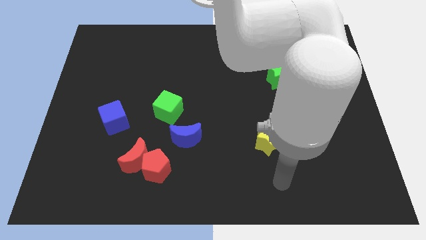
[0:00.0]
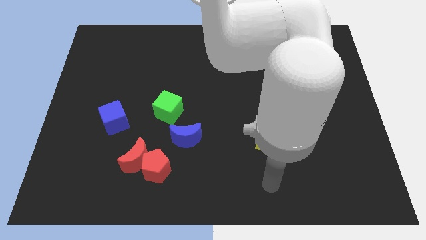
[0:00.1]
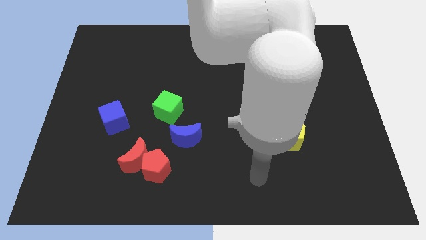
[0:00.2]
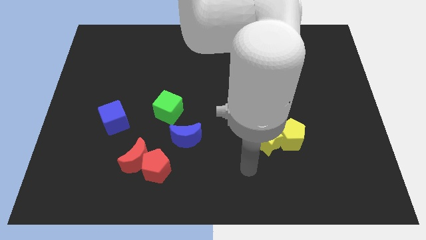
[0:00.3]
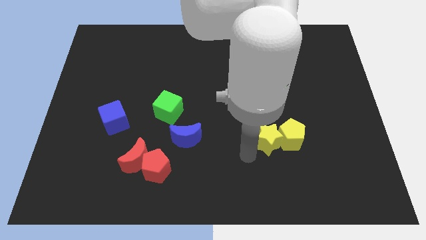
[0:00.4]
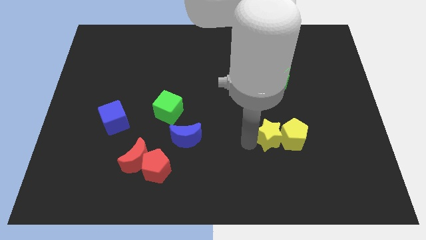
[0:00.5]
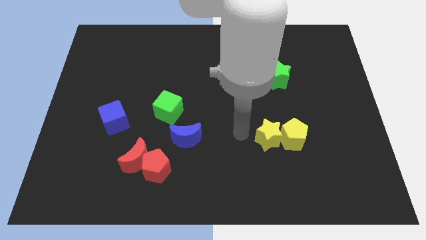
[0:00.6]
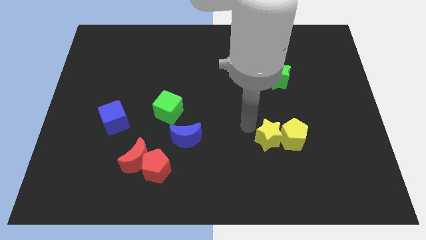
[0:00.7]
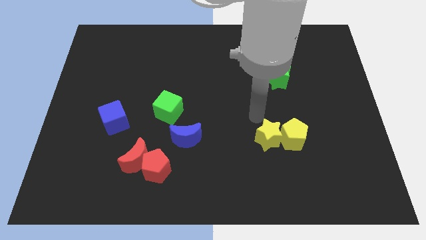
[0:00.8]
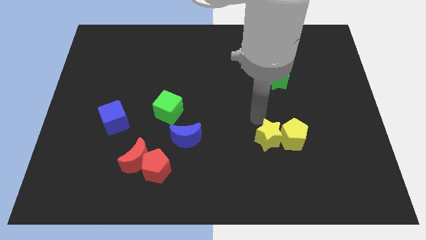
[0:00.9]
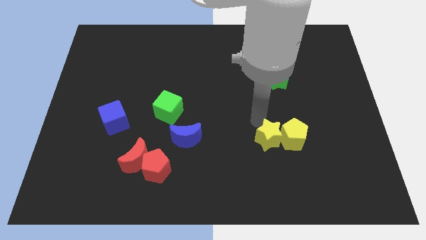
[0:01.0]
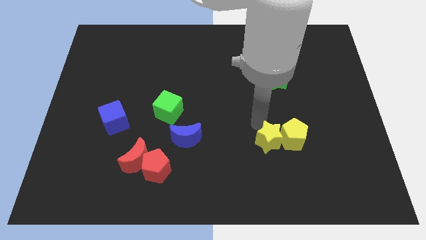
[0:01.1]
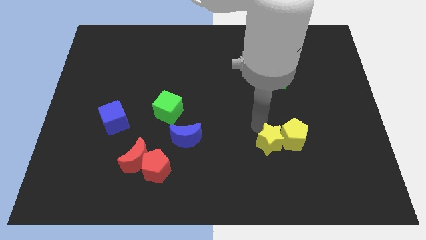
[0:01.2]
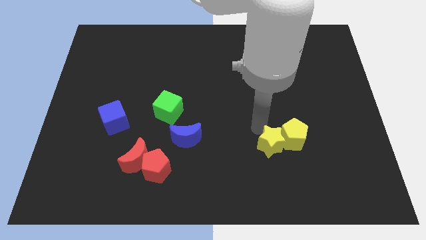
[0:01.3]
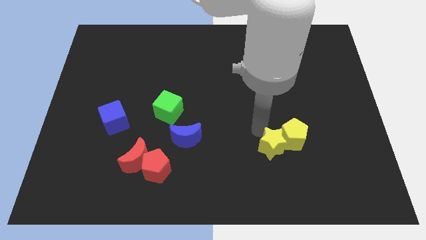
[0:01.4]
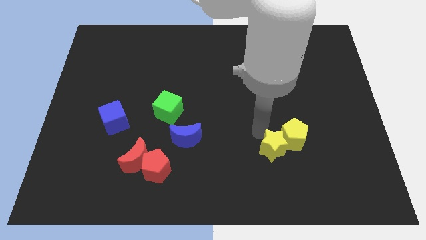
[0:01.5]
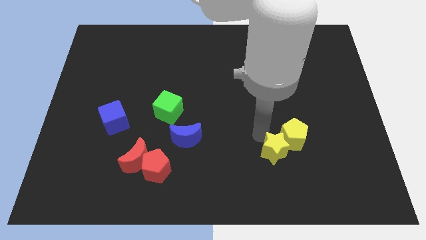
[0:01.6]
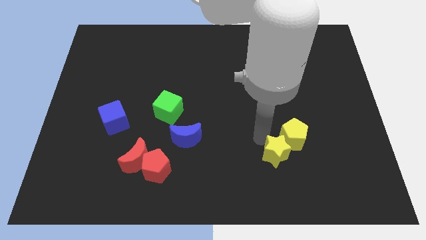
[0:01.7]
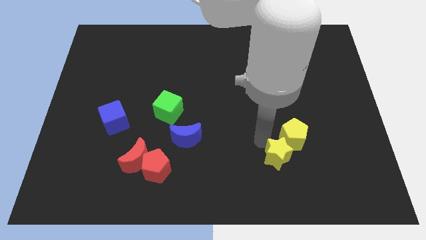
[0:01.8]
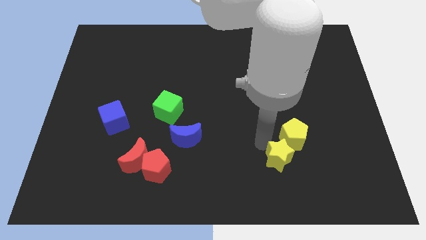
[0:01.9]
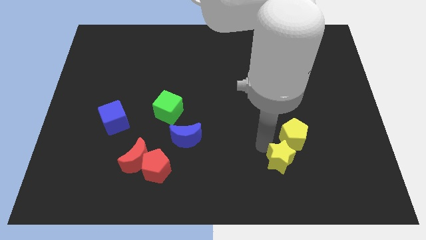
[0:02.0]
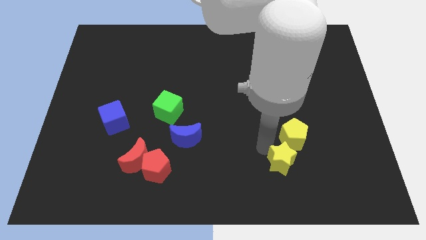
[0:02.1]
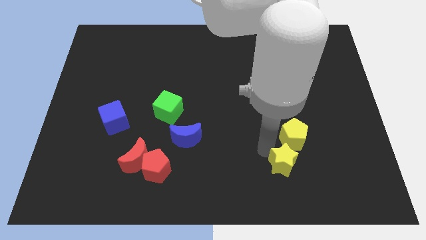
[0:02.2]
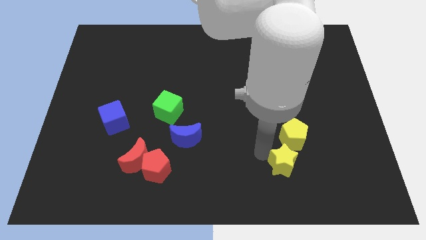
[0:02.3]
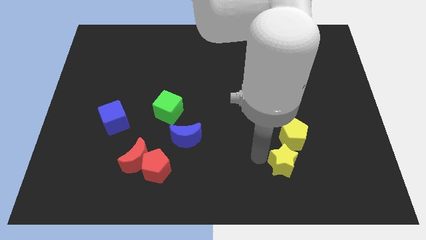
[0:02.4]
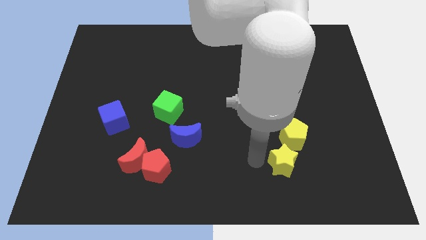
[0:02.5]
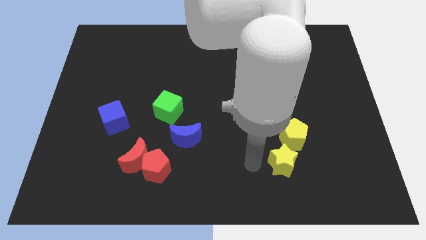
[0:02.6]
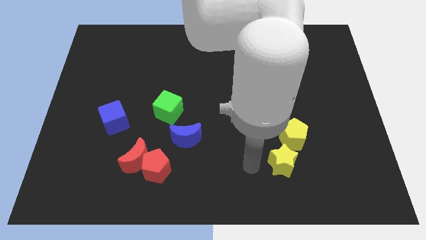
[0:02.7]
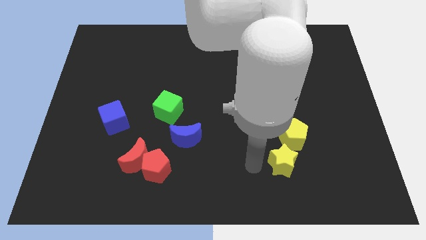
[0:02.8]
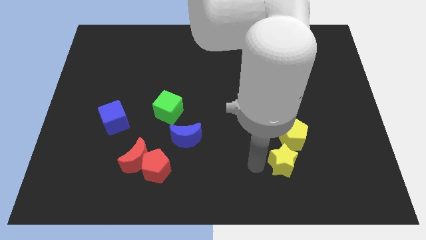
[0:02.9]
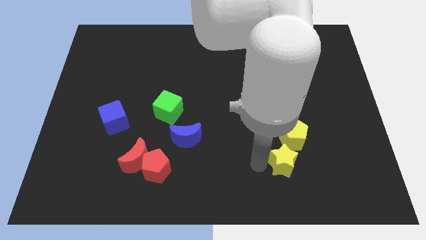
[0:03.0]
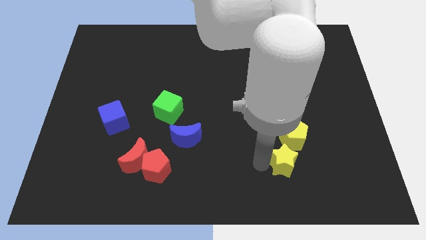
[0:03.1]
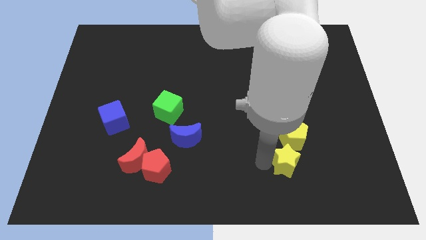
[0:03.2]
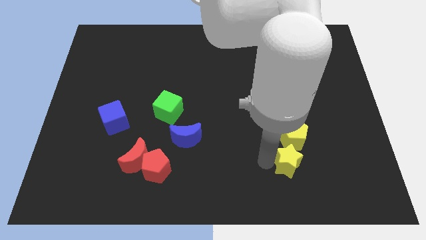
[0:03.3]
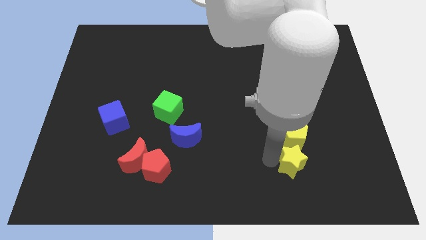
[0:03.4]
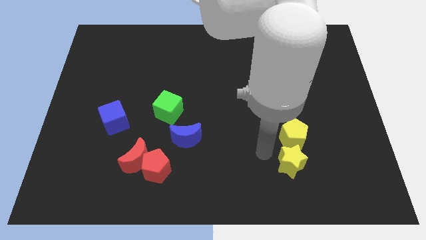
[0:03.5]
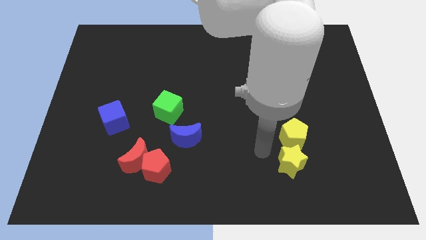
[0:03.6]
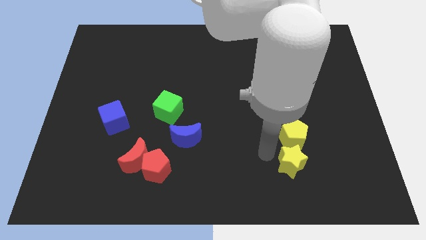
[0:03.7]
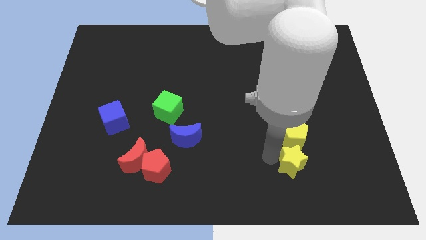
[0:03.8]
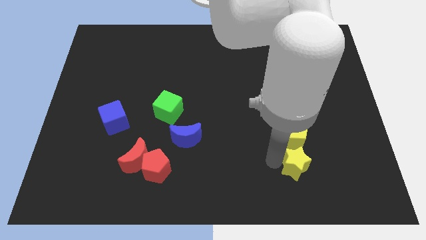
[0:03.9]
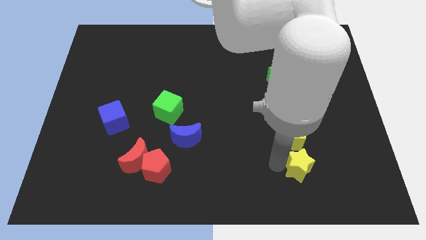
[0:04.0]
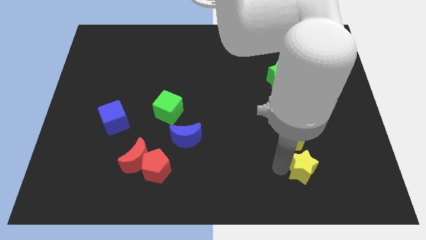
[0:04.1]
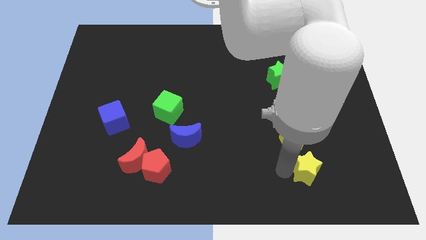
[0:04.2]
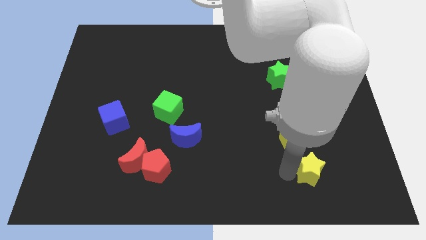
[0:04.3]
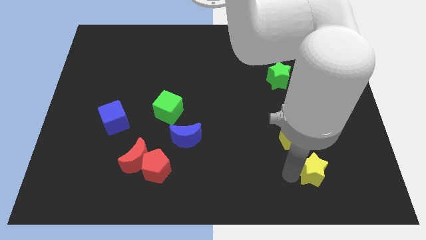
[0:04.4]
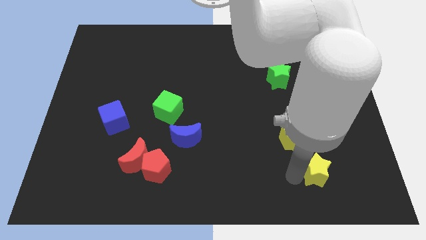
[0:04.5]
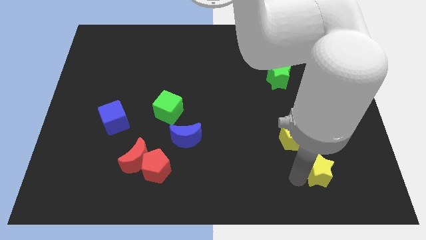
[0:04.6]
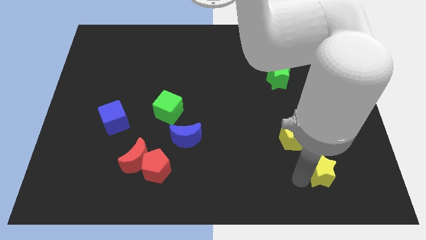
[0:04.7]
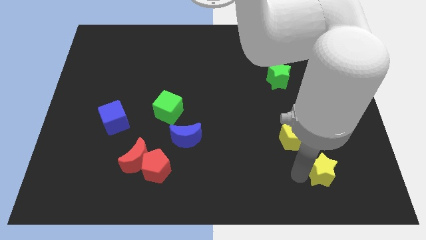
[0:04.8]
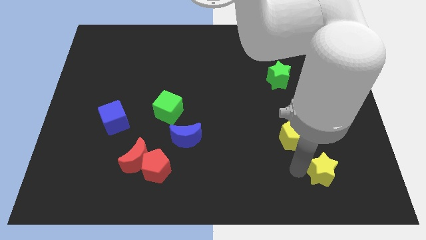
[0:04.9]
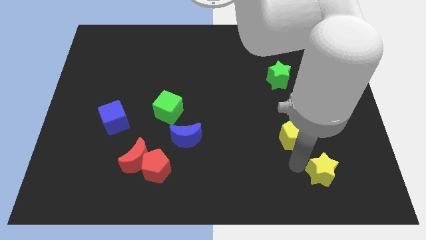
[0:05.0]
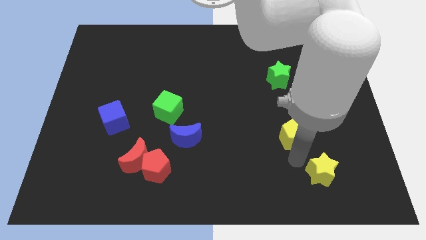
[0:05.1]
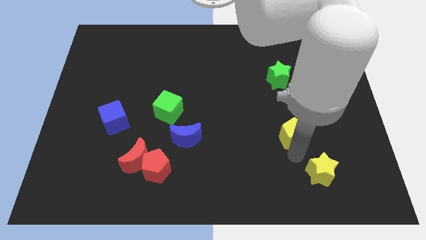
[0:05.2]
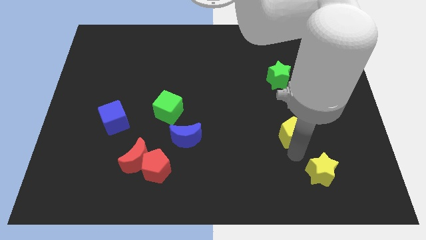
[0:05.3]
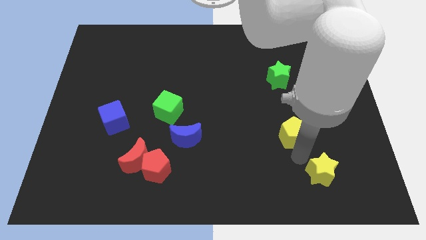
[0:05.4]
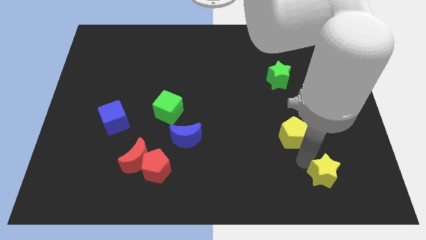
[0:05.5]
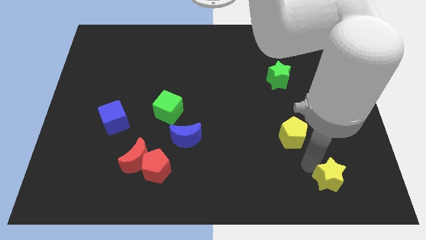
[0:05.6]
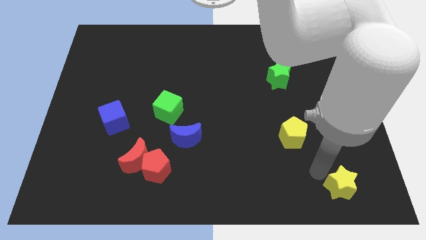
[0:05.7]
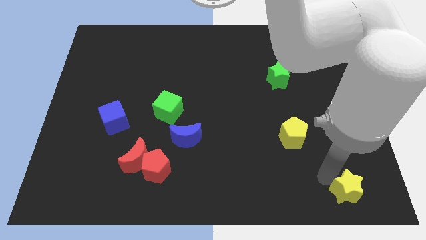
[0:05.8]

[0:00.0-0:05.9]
slide the yellow star to the bottom right corner

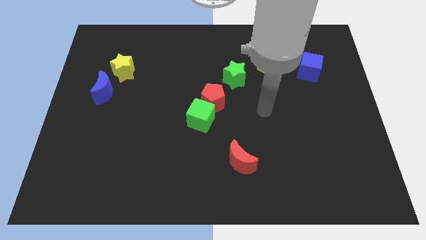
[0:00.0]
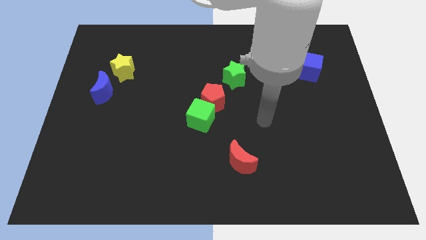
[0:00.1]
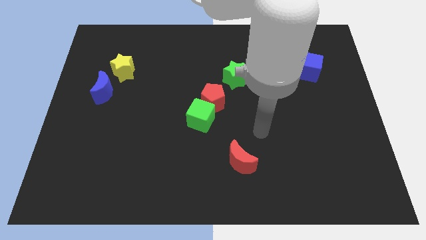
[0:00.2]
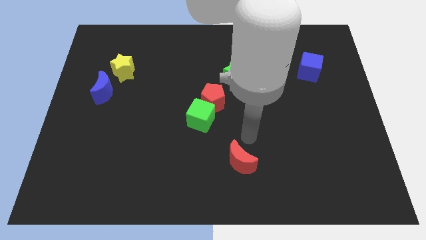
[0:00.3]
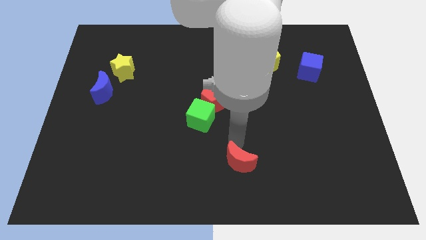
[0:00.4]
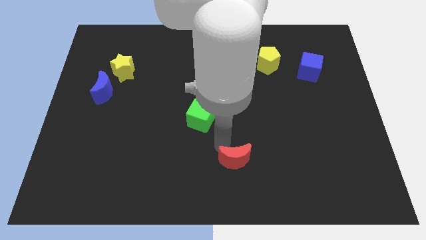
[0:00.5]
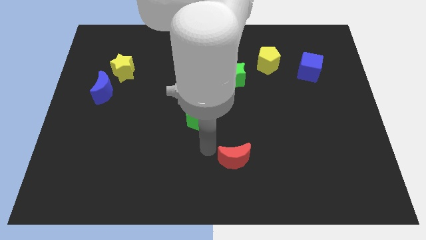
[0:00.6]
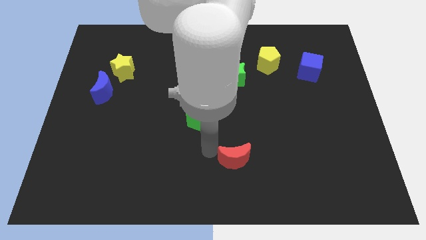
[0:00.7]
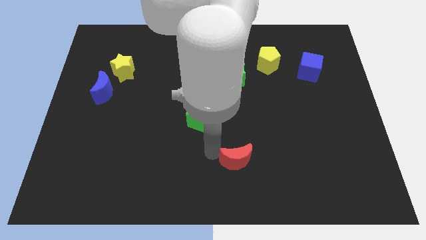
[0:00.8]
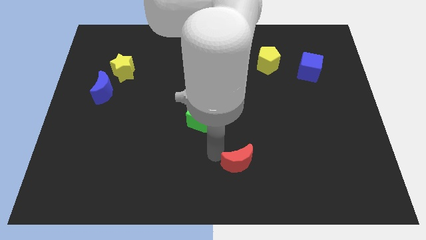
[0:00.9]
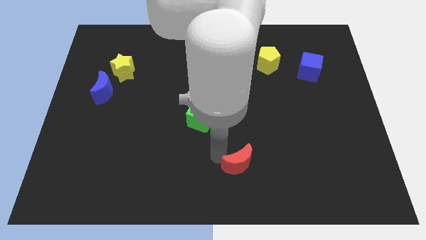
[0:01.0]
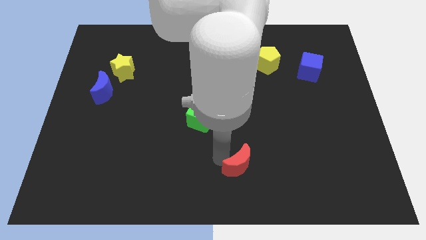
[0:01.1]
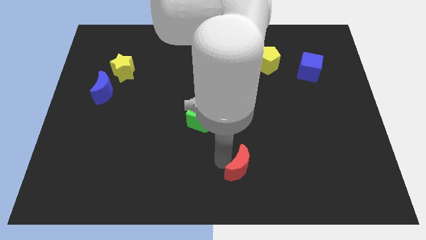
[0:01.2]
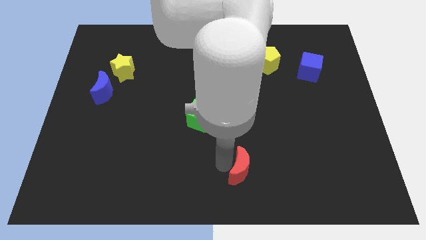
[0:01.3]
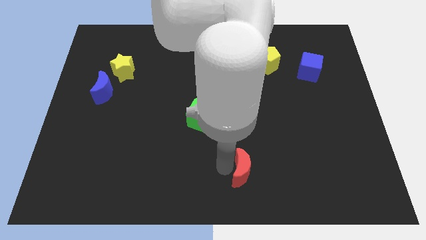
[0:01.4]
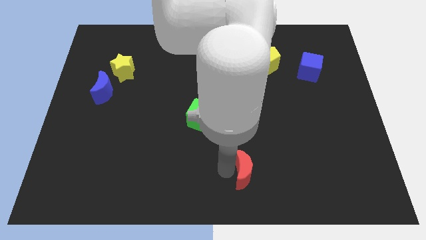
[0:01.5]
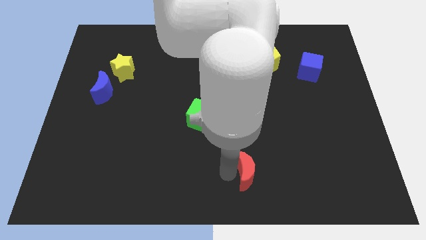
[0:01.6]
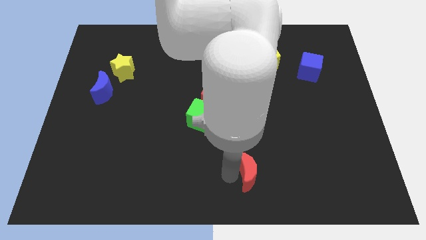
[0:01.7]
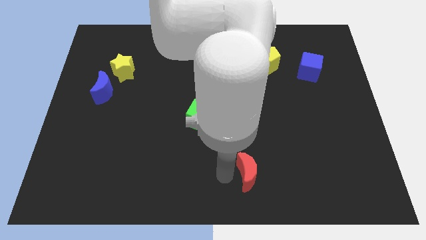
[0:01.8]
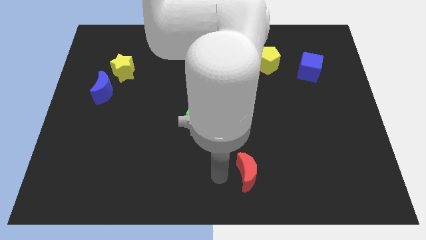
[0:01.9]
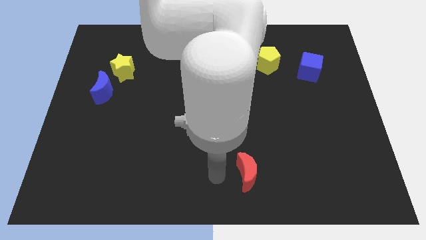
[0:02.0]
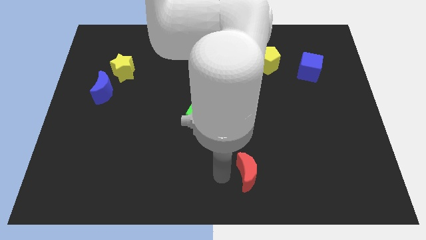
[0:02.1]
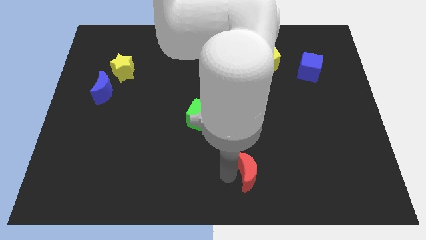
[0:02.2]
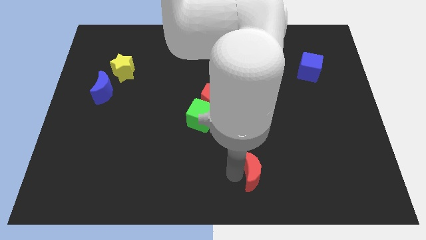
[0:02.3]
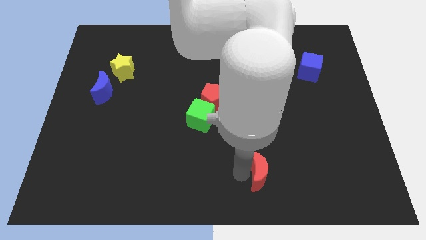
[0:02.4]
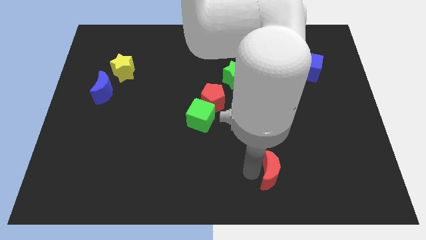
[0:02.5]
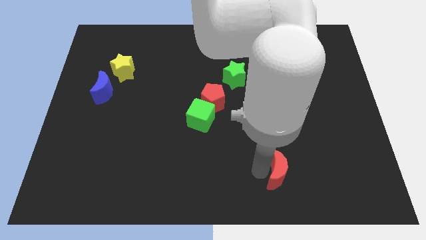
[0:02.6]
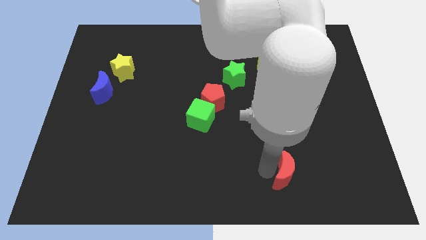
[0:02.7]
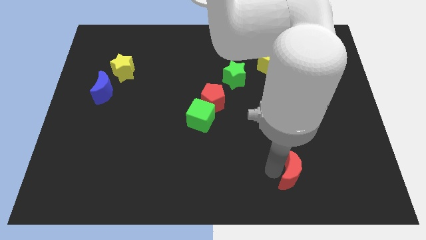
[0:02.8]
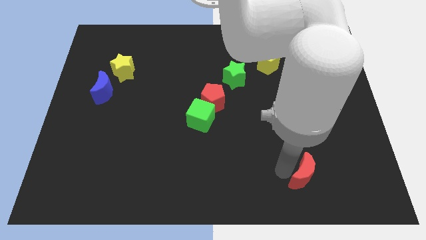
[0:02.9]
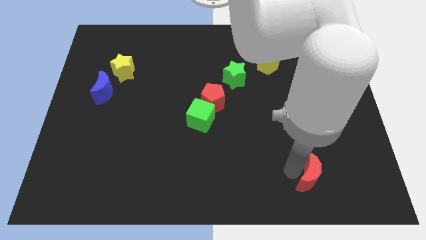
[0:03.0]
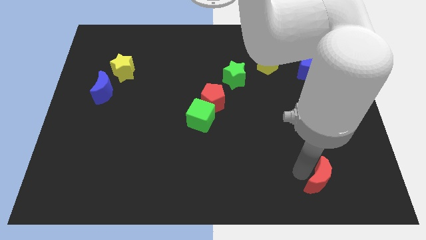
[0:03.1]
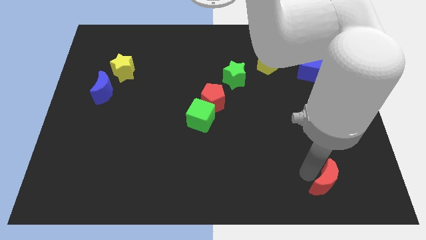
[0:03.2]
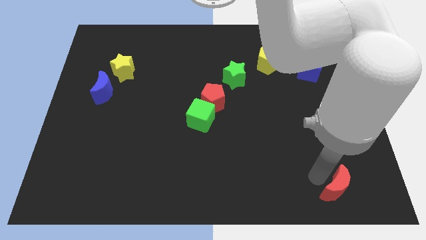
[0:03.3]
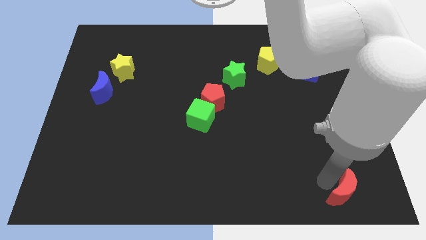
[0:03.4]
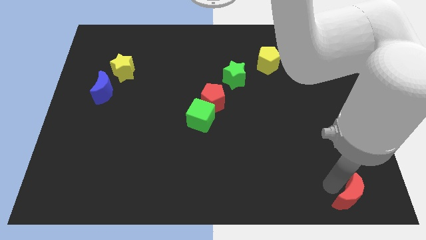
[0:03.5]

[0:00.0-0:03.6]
put the red moon to the bottom right
